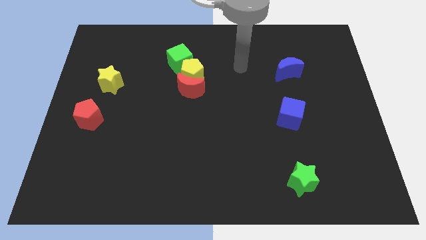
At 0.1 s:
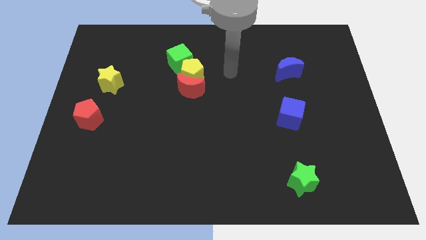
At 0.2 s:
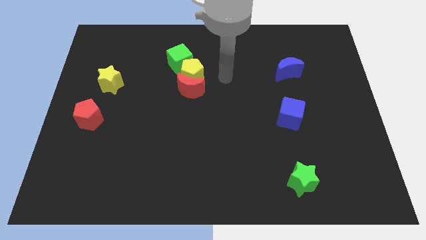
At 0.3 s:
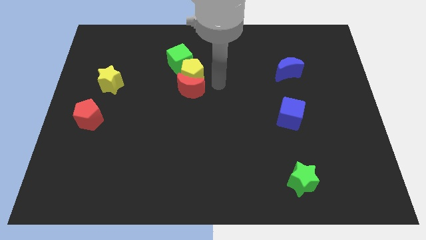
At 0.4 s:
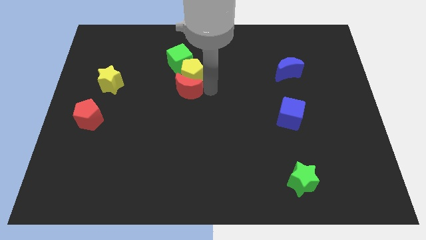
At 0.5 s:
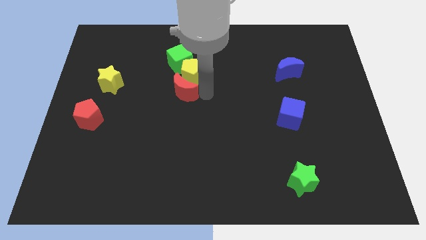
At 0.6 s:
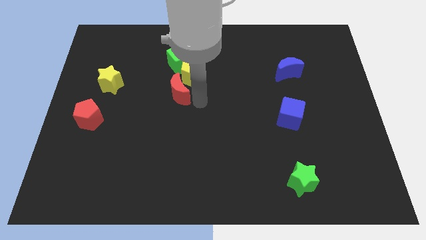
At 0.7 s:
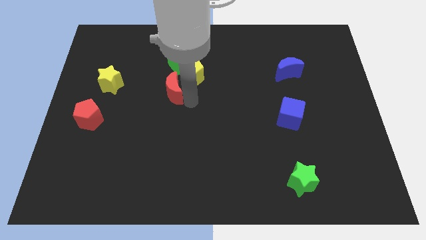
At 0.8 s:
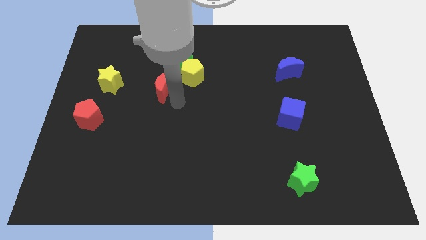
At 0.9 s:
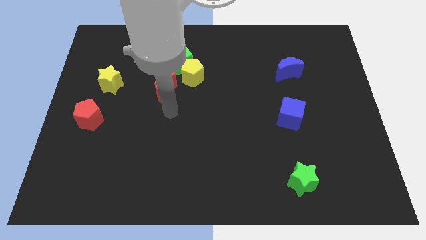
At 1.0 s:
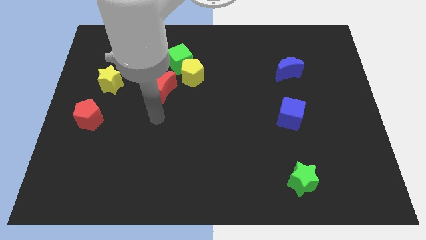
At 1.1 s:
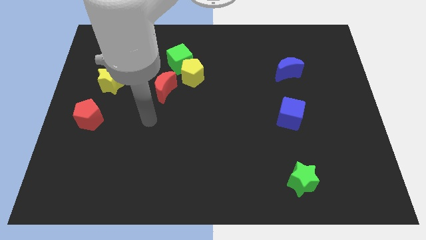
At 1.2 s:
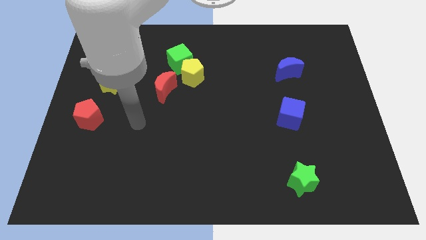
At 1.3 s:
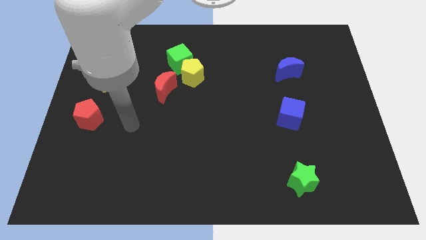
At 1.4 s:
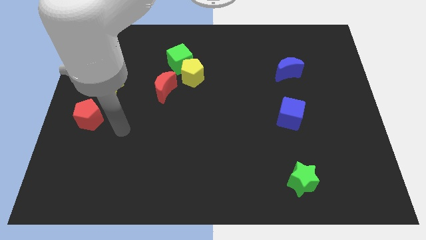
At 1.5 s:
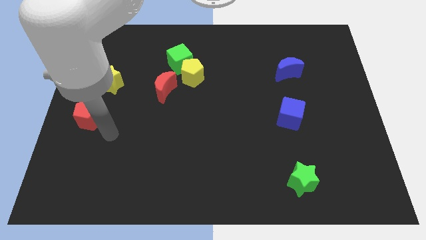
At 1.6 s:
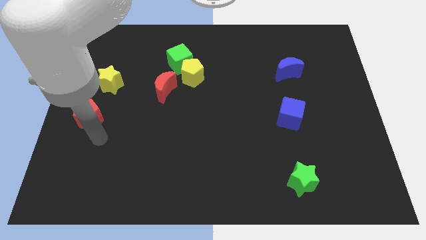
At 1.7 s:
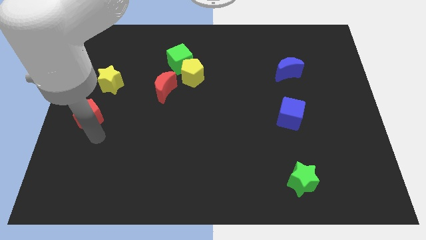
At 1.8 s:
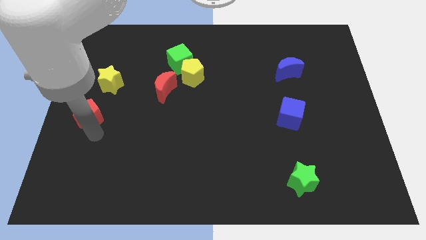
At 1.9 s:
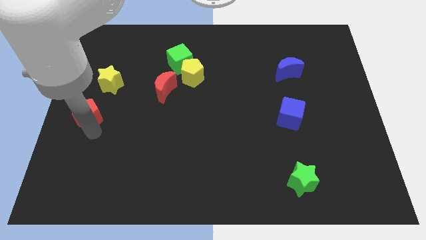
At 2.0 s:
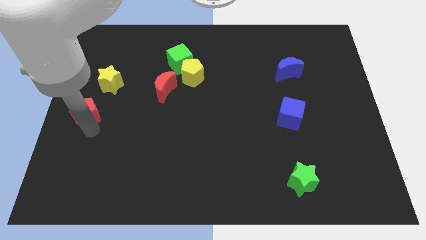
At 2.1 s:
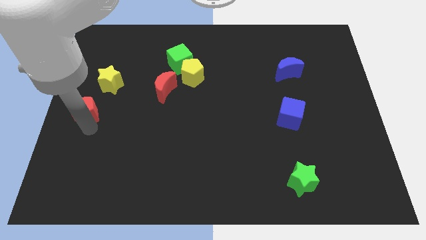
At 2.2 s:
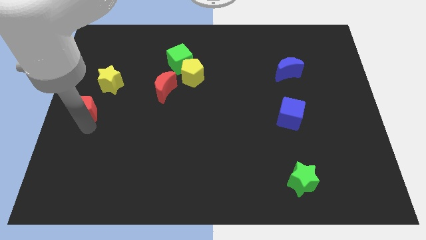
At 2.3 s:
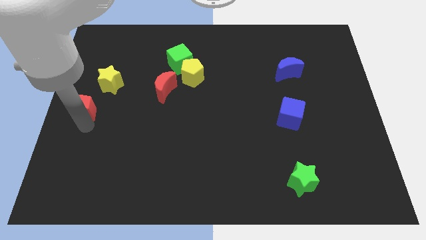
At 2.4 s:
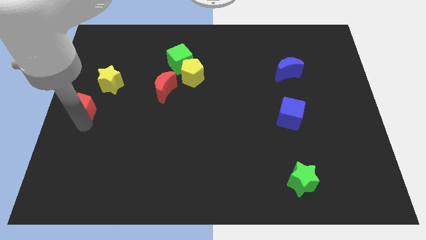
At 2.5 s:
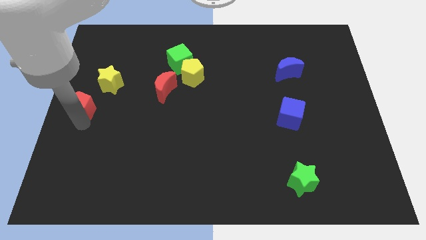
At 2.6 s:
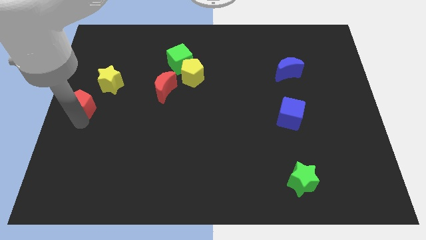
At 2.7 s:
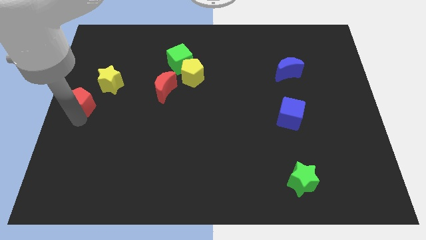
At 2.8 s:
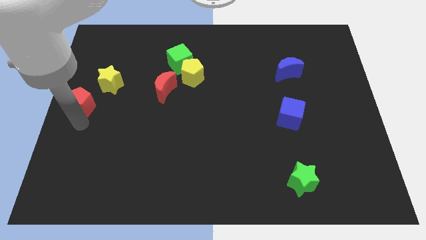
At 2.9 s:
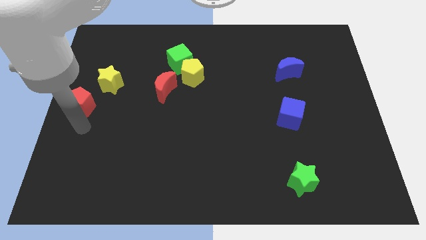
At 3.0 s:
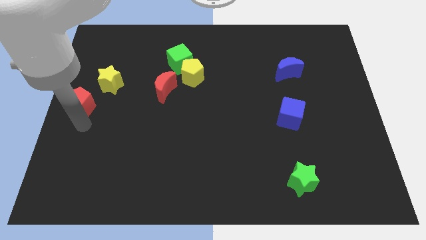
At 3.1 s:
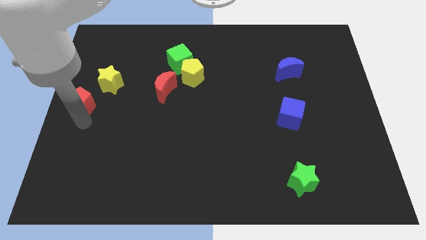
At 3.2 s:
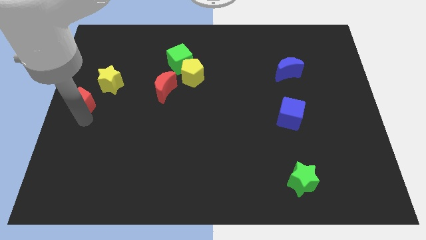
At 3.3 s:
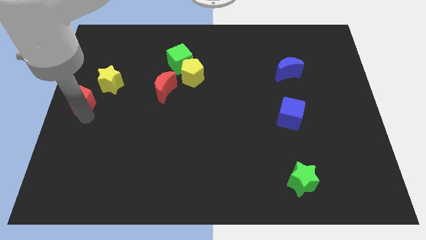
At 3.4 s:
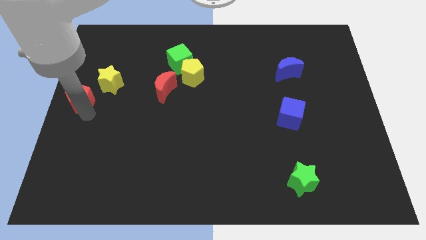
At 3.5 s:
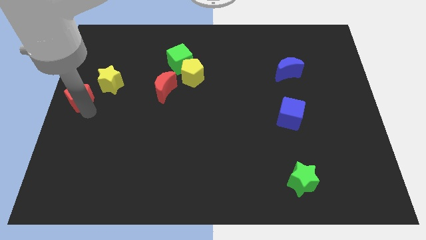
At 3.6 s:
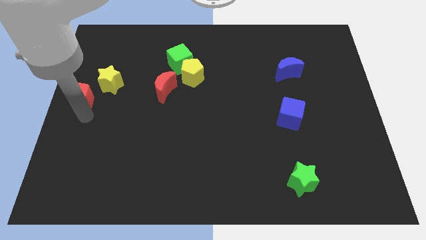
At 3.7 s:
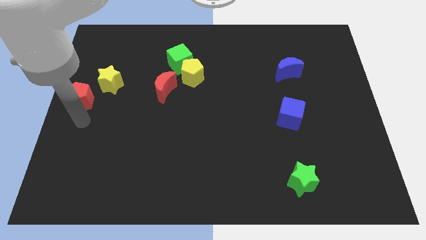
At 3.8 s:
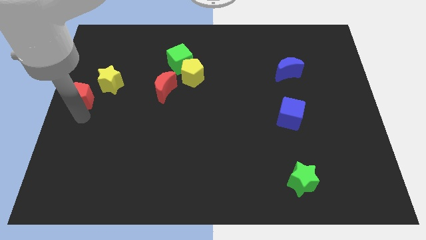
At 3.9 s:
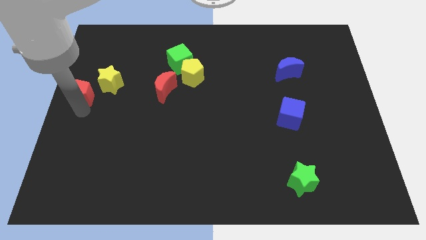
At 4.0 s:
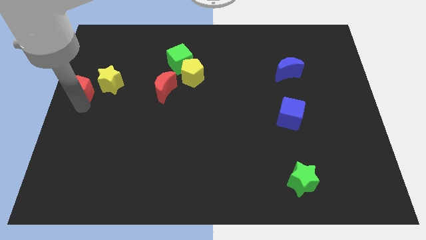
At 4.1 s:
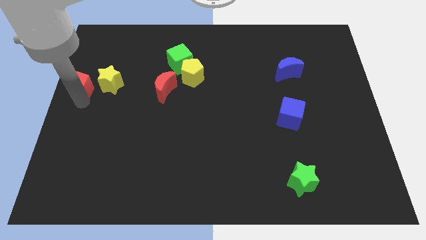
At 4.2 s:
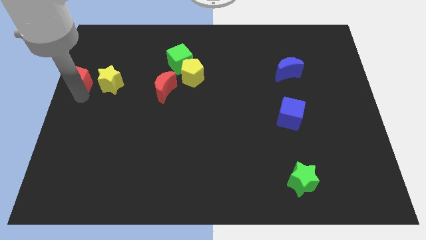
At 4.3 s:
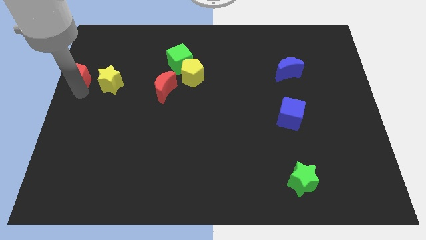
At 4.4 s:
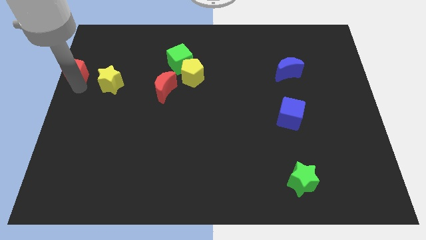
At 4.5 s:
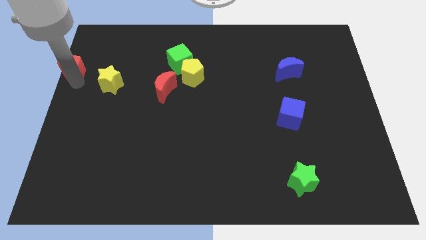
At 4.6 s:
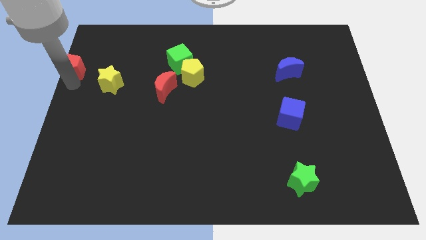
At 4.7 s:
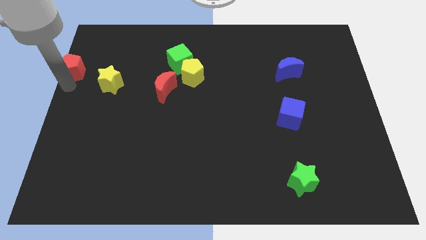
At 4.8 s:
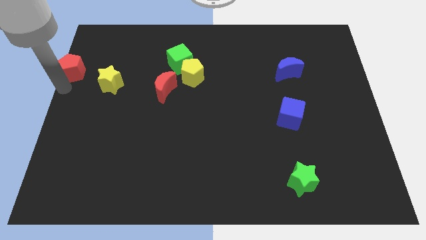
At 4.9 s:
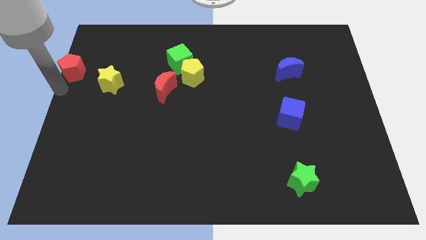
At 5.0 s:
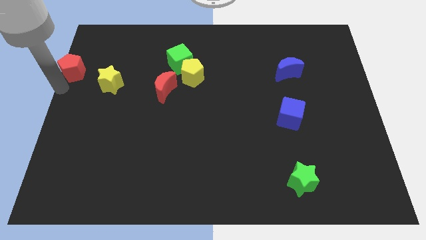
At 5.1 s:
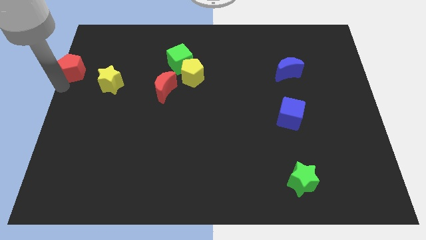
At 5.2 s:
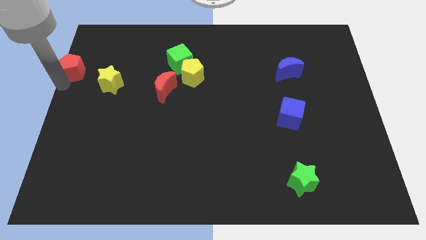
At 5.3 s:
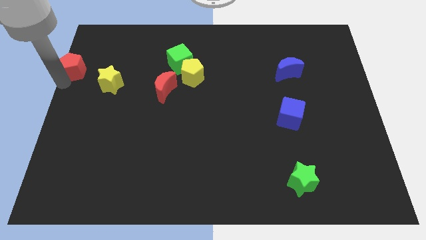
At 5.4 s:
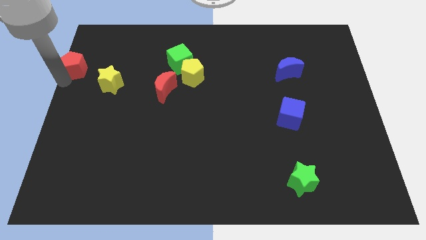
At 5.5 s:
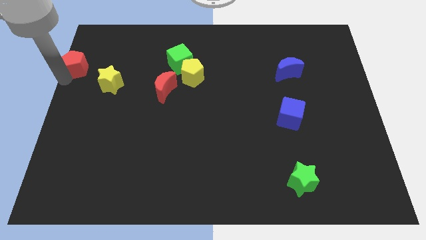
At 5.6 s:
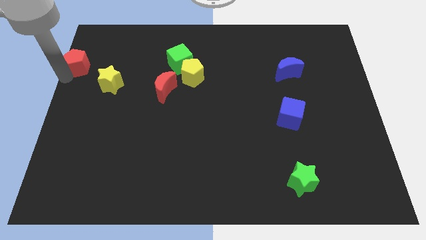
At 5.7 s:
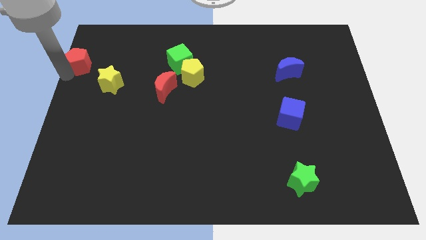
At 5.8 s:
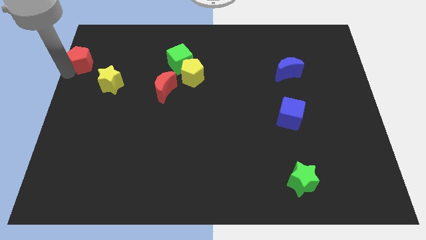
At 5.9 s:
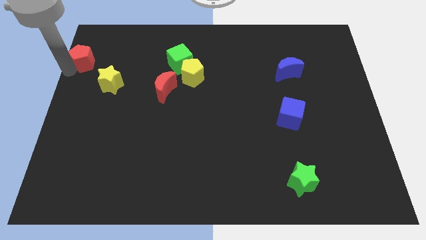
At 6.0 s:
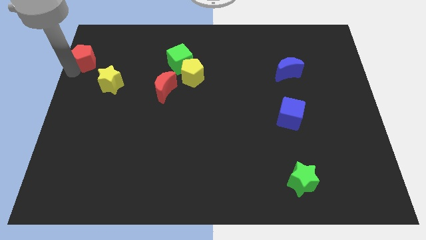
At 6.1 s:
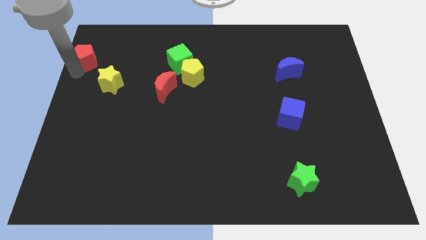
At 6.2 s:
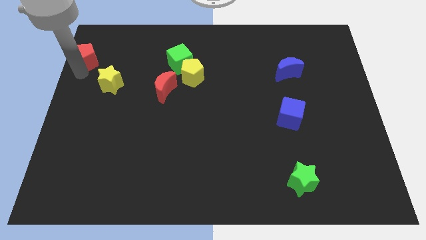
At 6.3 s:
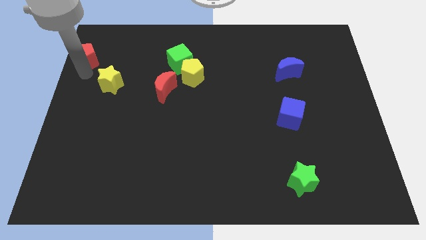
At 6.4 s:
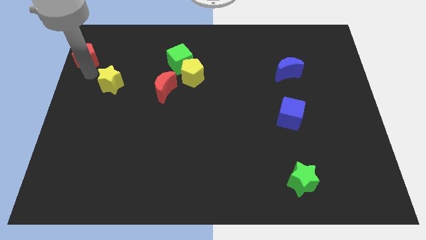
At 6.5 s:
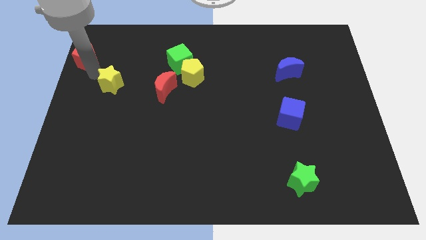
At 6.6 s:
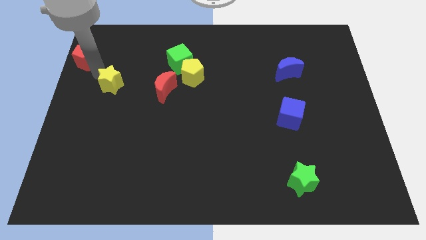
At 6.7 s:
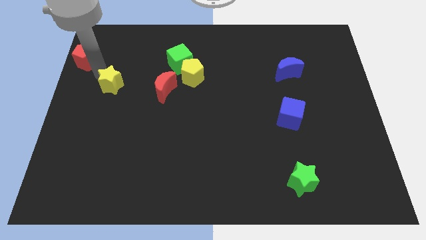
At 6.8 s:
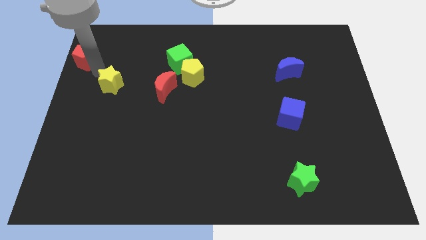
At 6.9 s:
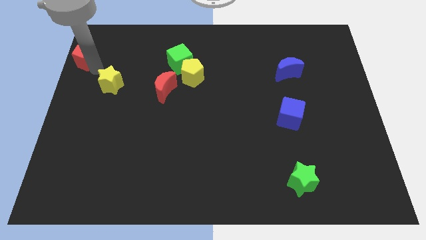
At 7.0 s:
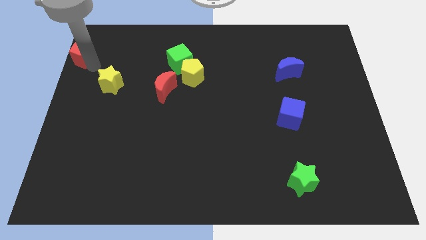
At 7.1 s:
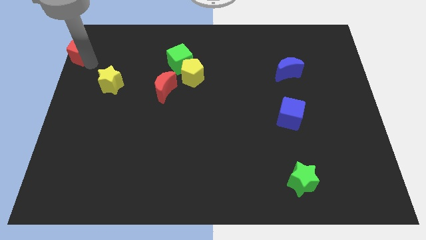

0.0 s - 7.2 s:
slide the red pentagon to the upper left corner
